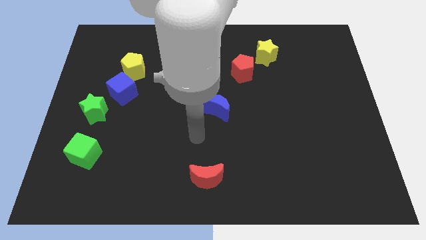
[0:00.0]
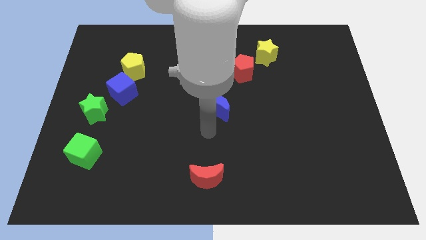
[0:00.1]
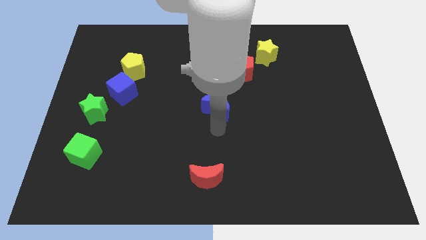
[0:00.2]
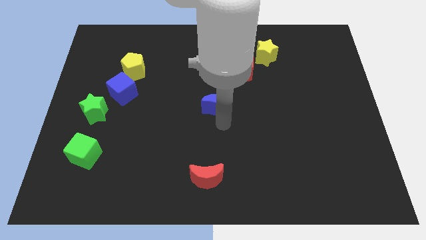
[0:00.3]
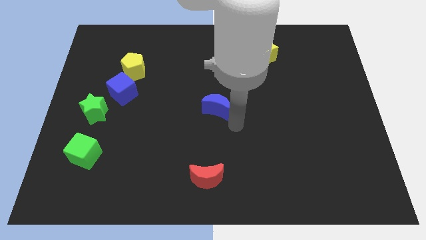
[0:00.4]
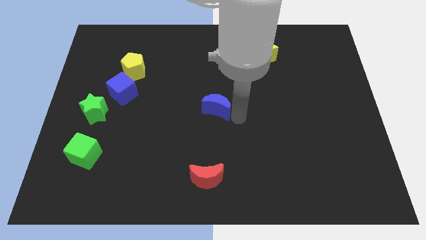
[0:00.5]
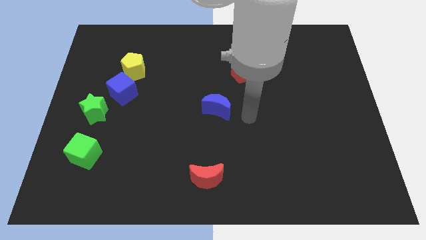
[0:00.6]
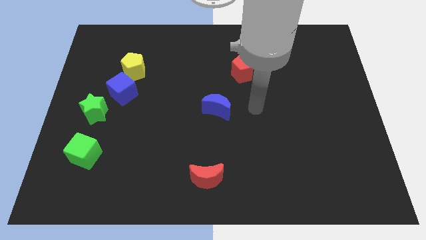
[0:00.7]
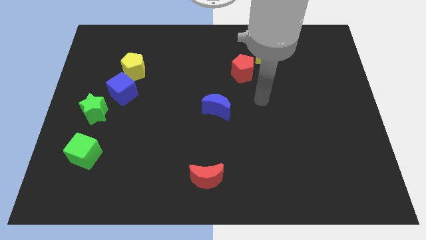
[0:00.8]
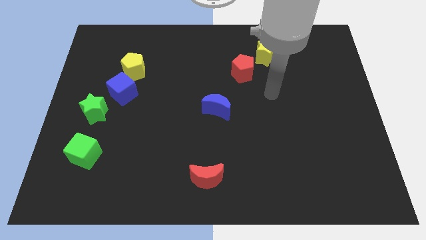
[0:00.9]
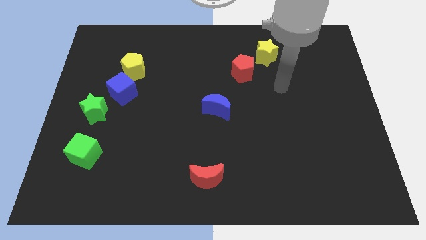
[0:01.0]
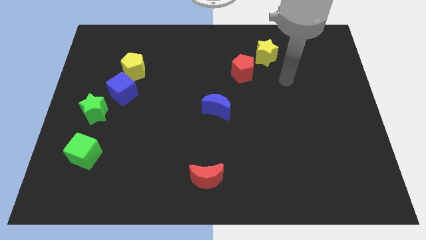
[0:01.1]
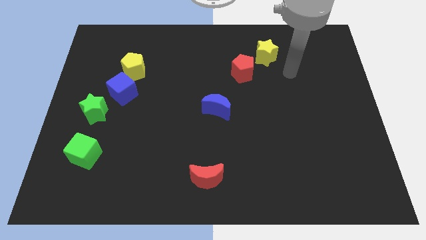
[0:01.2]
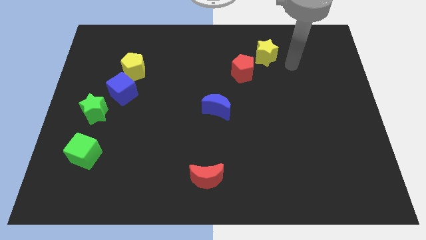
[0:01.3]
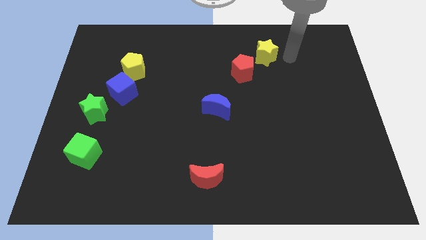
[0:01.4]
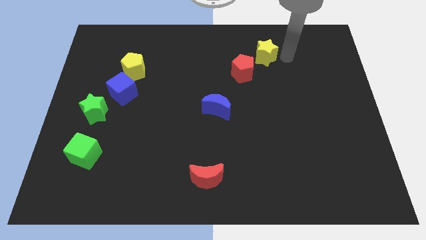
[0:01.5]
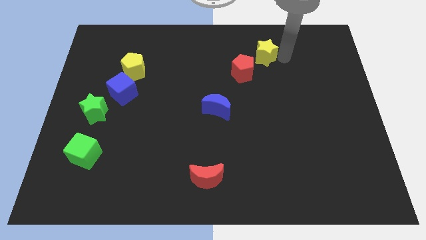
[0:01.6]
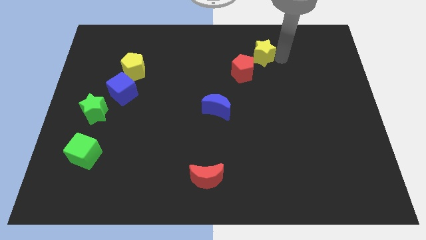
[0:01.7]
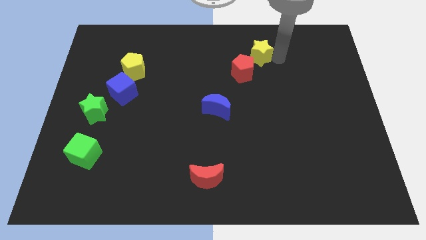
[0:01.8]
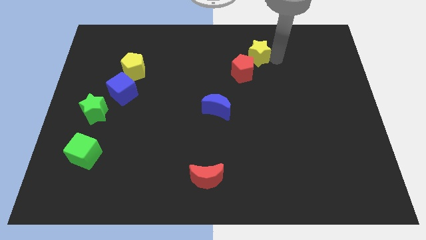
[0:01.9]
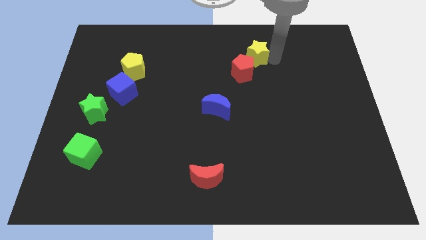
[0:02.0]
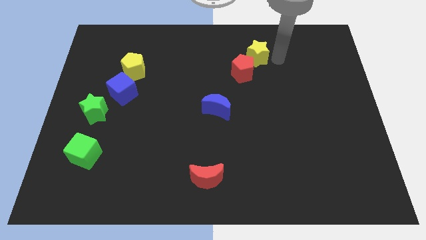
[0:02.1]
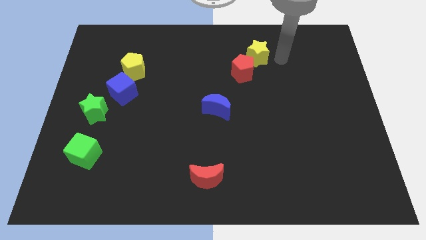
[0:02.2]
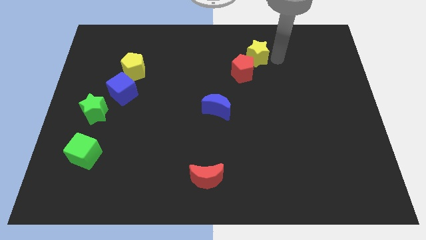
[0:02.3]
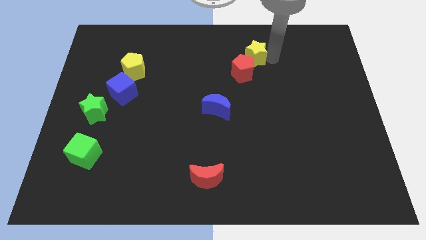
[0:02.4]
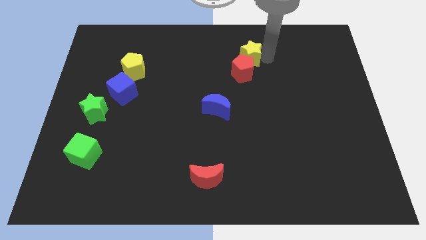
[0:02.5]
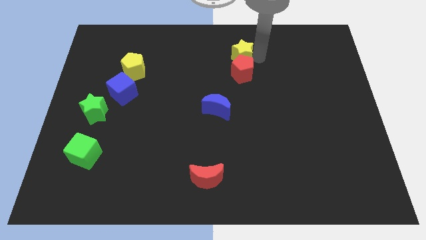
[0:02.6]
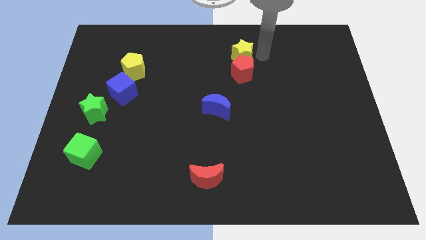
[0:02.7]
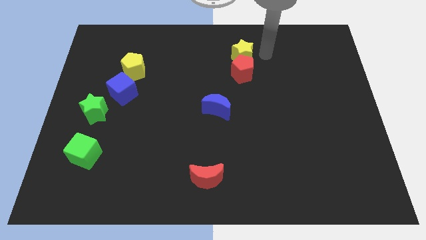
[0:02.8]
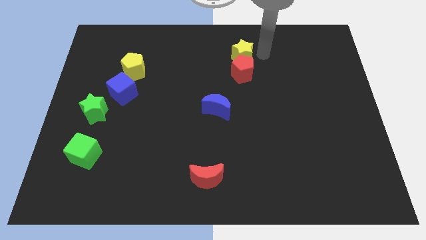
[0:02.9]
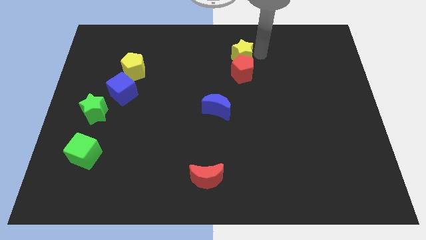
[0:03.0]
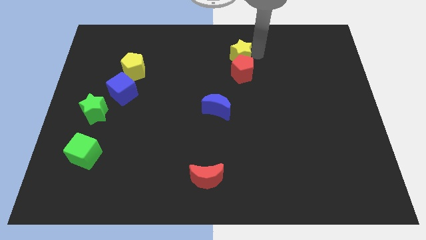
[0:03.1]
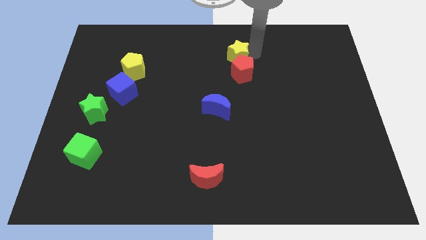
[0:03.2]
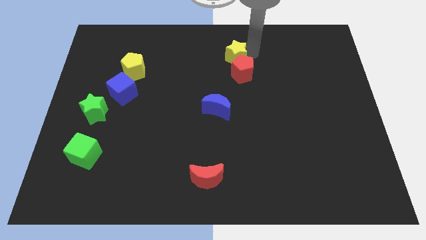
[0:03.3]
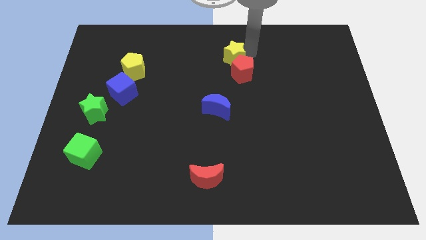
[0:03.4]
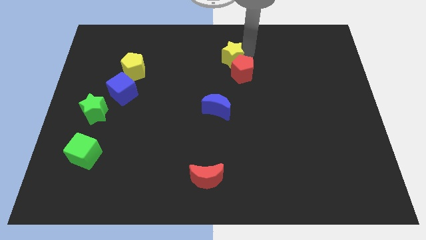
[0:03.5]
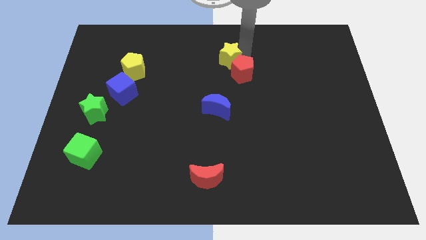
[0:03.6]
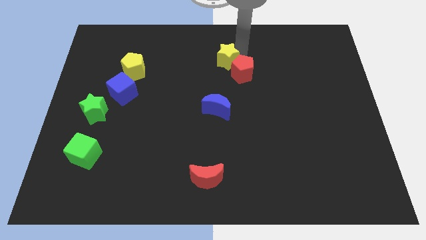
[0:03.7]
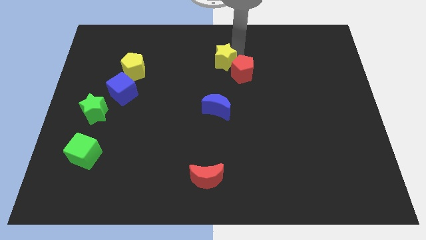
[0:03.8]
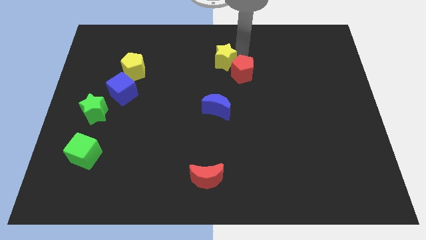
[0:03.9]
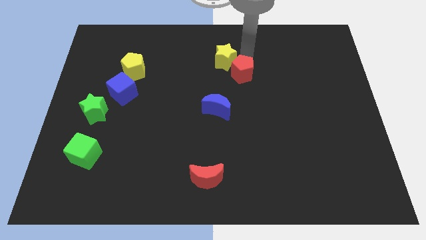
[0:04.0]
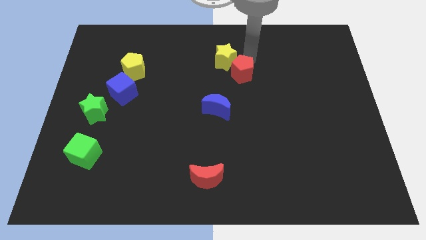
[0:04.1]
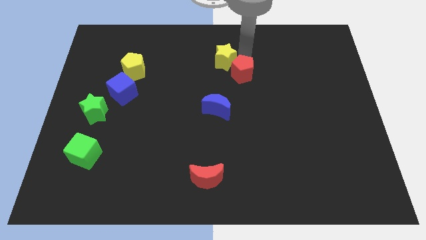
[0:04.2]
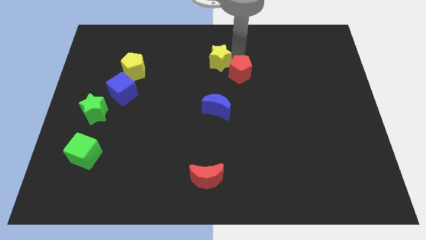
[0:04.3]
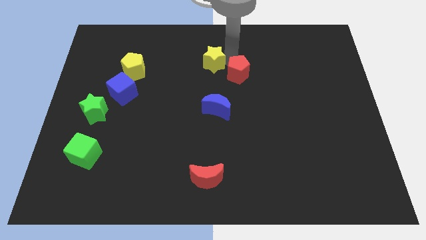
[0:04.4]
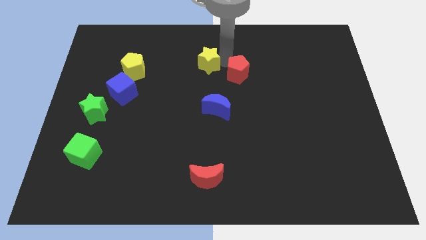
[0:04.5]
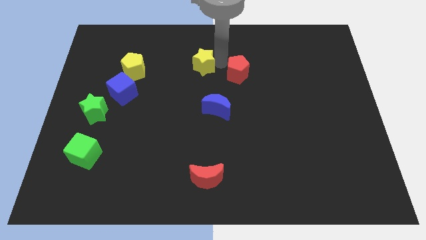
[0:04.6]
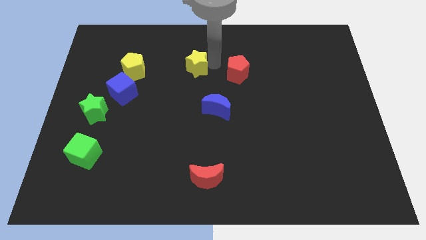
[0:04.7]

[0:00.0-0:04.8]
put the yellow star to the right of the yellow pentagon

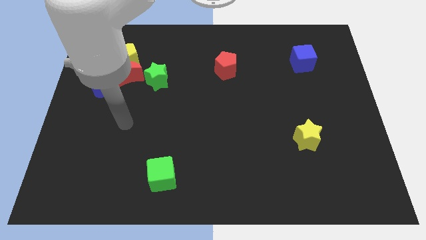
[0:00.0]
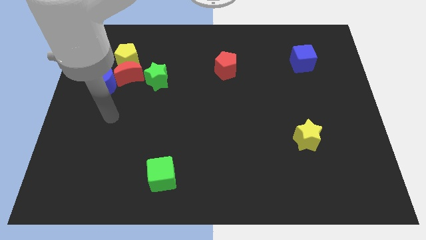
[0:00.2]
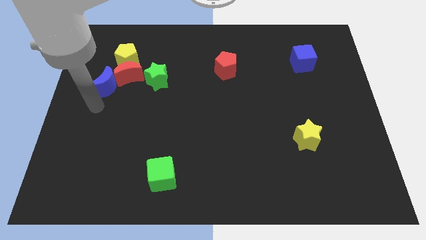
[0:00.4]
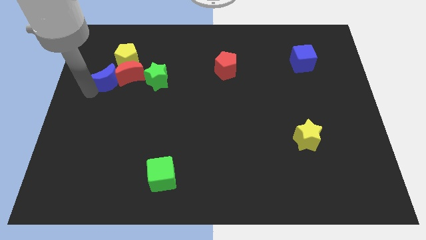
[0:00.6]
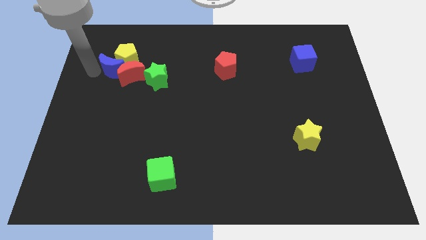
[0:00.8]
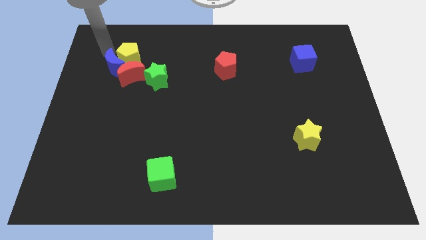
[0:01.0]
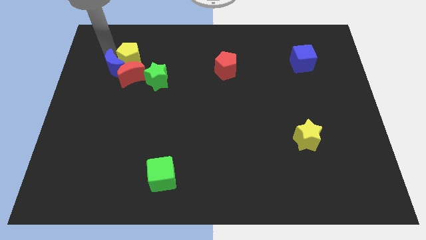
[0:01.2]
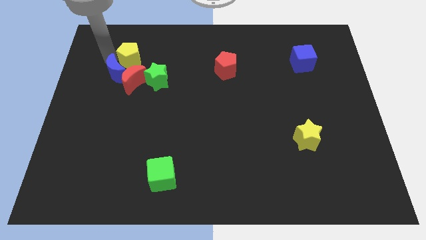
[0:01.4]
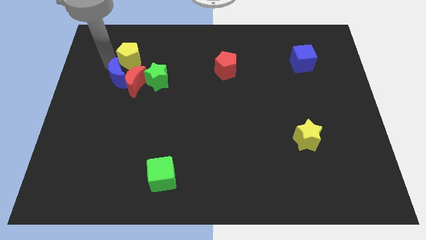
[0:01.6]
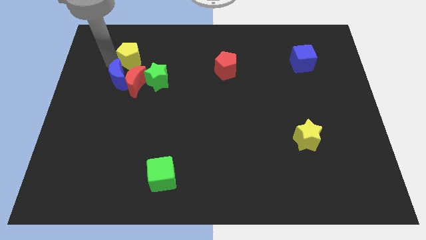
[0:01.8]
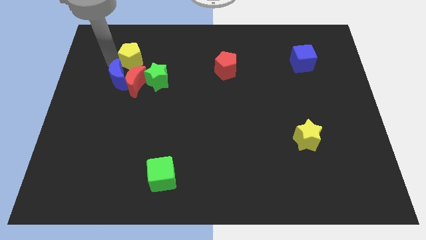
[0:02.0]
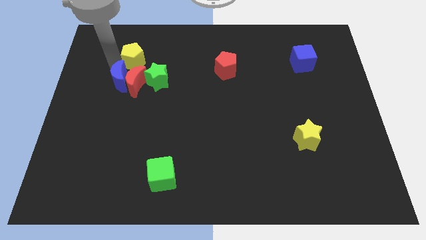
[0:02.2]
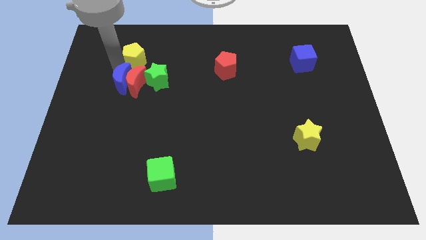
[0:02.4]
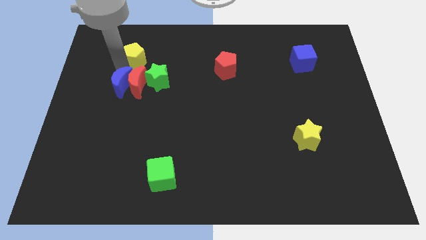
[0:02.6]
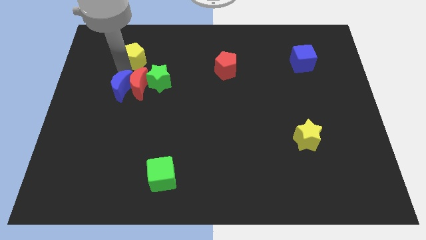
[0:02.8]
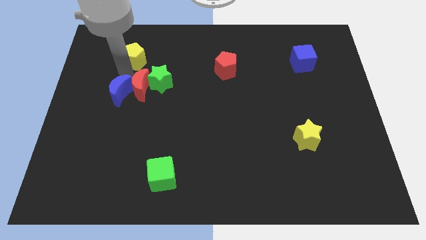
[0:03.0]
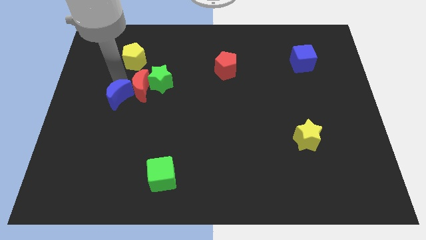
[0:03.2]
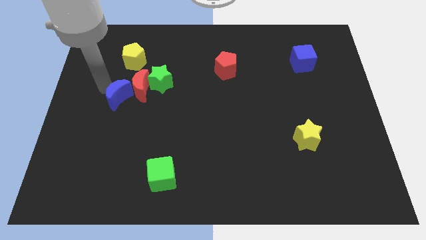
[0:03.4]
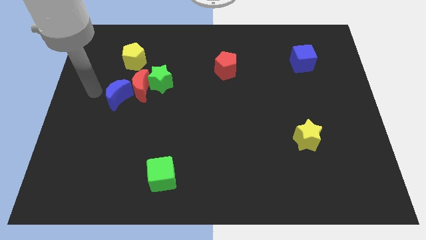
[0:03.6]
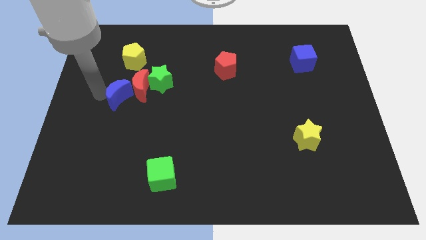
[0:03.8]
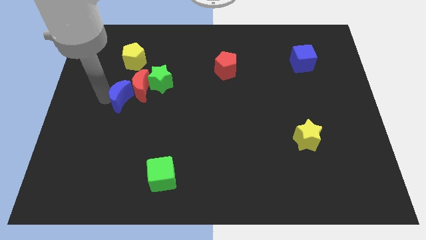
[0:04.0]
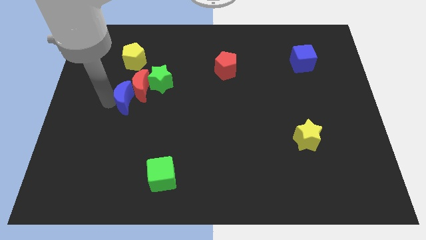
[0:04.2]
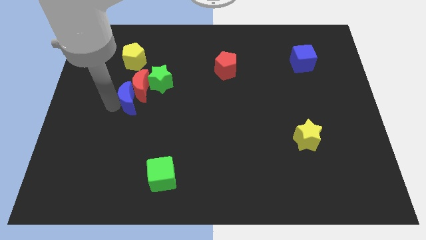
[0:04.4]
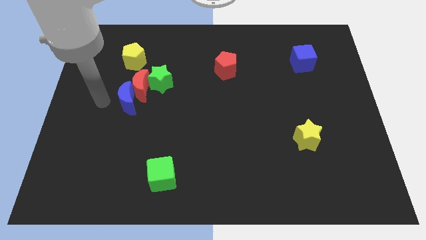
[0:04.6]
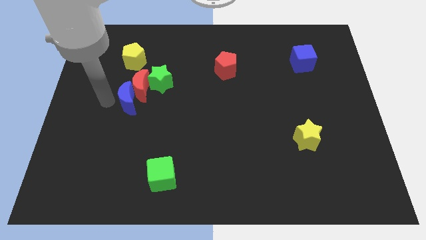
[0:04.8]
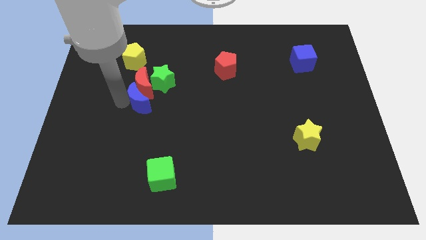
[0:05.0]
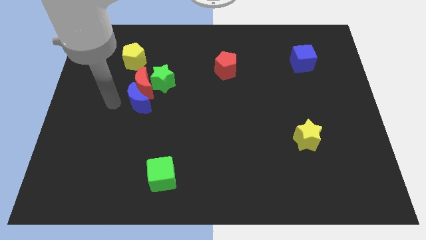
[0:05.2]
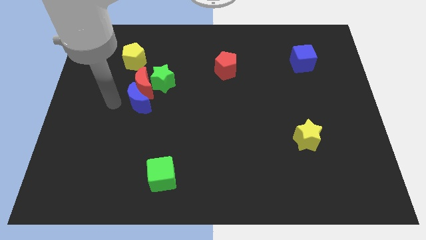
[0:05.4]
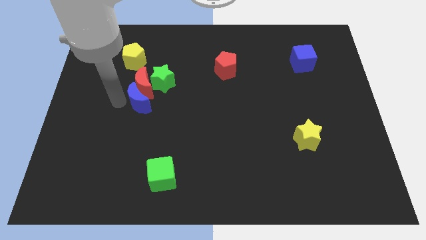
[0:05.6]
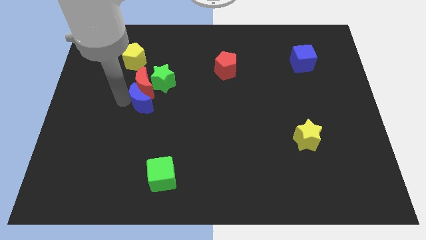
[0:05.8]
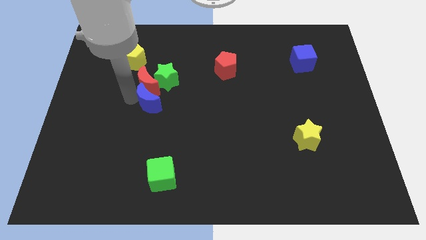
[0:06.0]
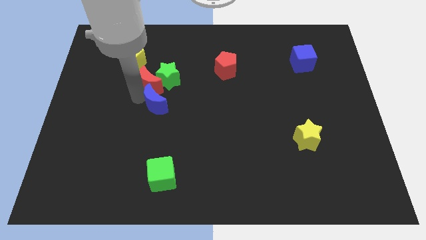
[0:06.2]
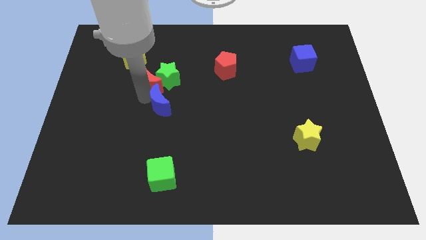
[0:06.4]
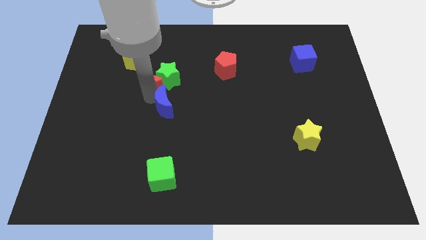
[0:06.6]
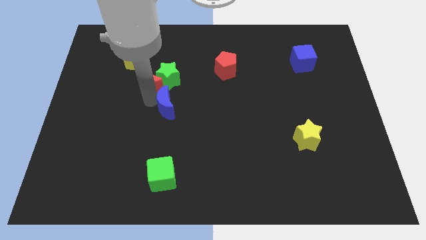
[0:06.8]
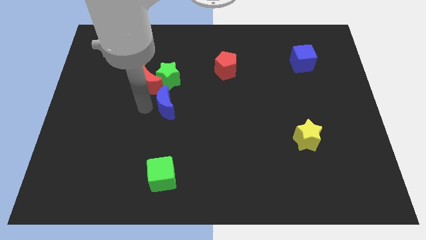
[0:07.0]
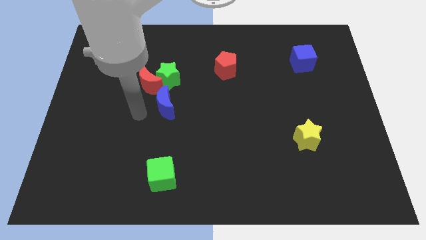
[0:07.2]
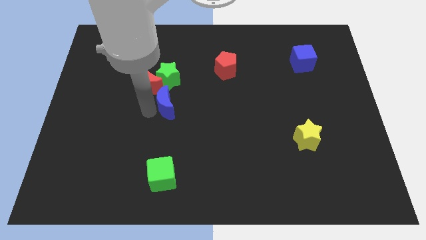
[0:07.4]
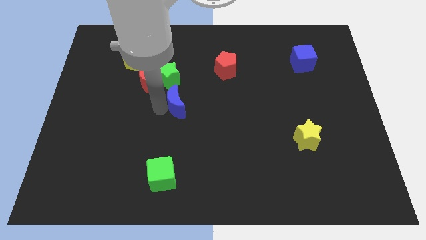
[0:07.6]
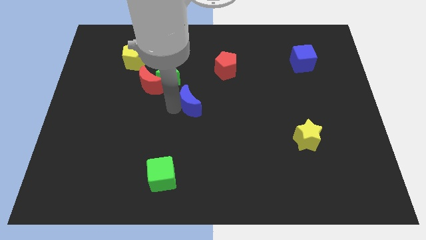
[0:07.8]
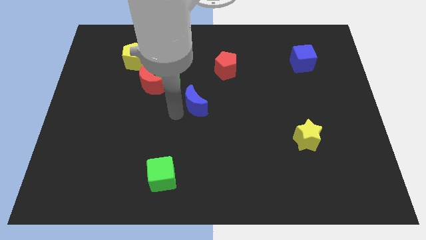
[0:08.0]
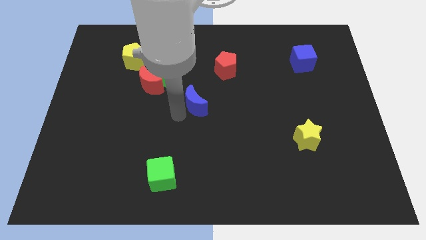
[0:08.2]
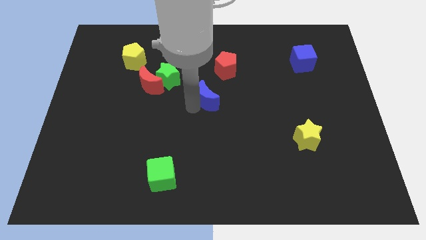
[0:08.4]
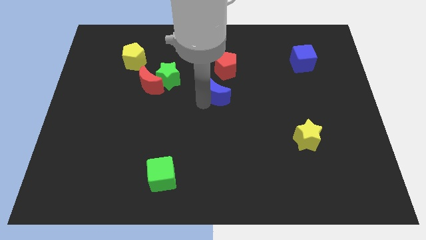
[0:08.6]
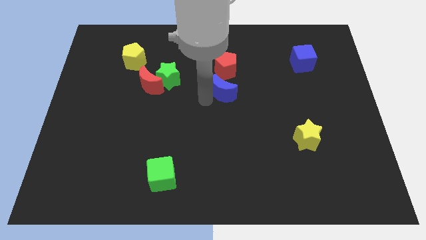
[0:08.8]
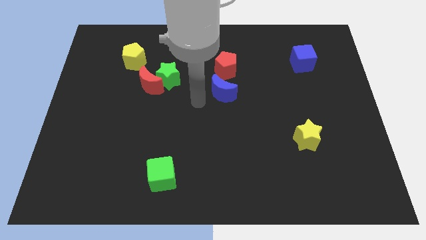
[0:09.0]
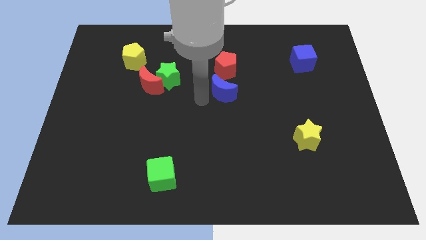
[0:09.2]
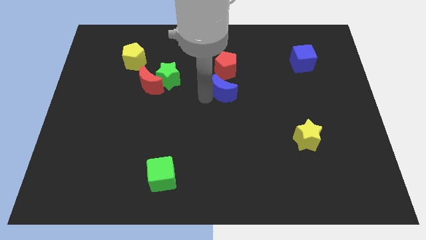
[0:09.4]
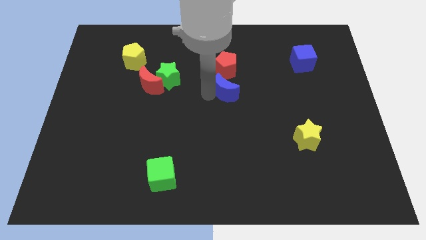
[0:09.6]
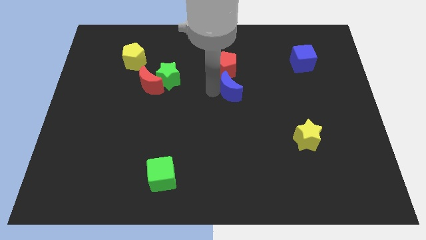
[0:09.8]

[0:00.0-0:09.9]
put the blue moon to the bottom right side of the red pentagon
